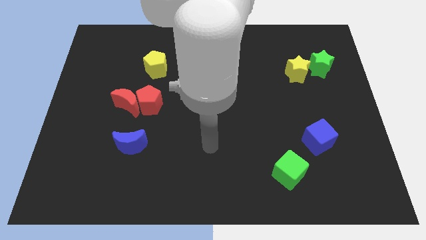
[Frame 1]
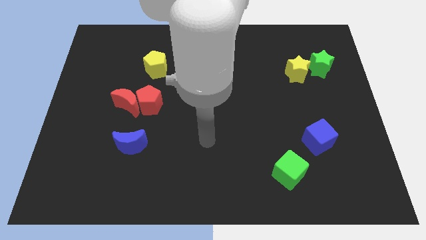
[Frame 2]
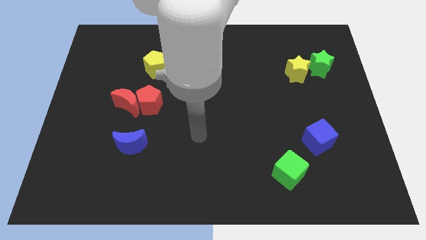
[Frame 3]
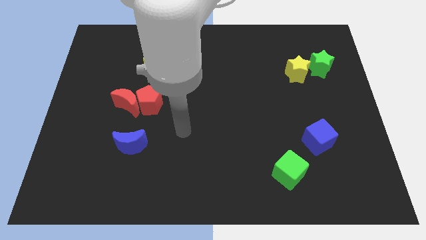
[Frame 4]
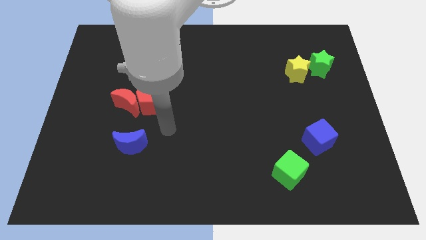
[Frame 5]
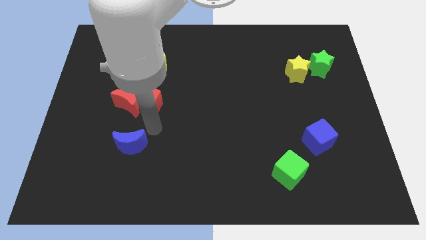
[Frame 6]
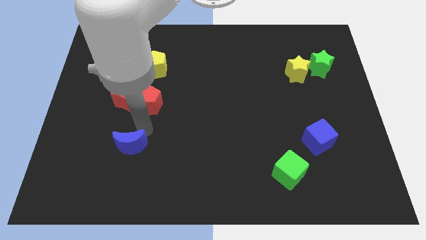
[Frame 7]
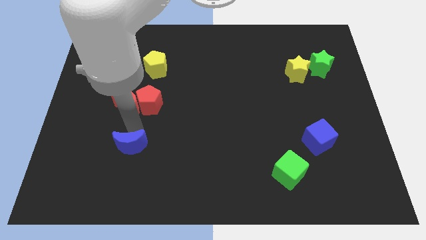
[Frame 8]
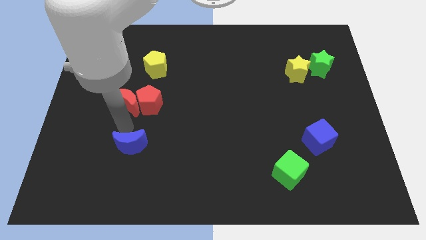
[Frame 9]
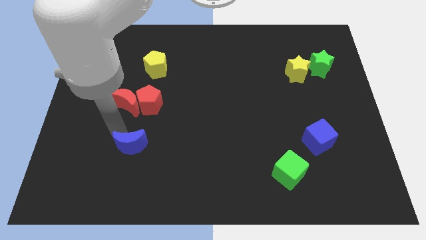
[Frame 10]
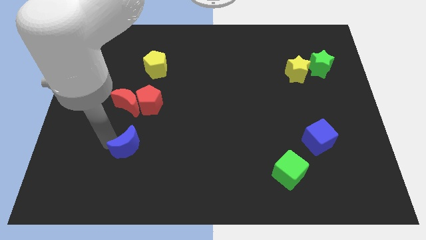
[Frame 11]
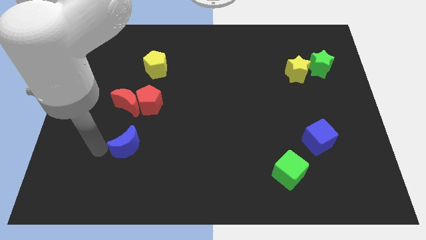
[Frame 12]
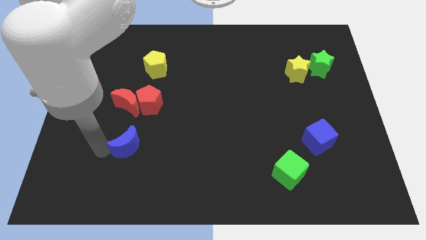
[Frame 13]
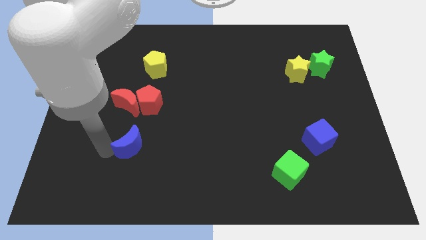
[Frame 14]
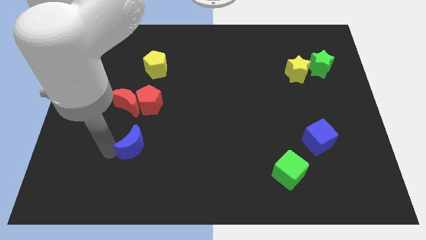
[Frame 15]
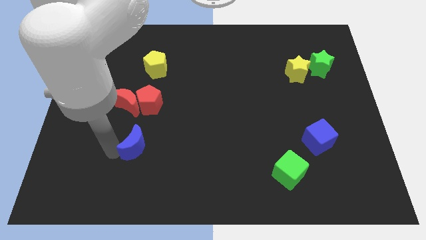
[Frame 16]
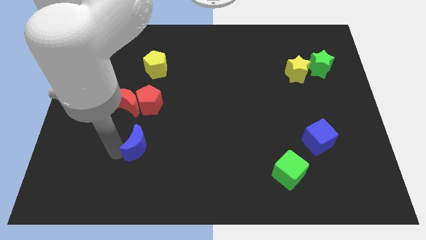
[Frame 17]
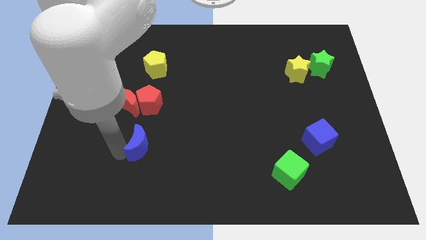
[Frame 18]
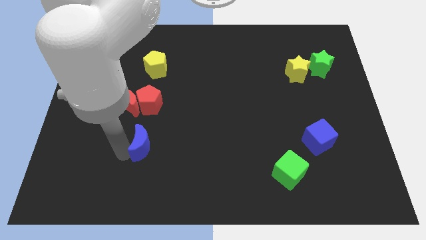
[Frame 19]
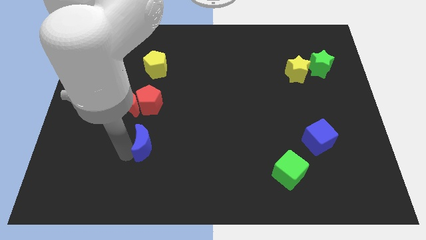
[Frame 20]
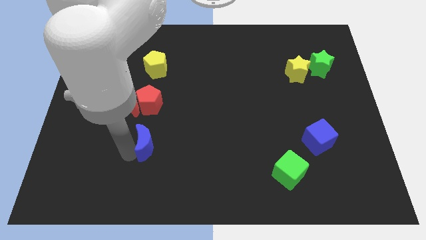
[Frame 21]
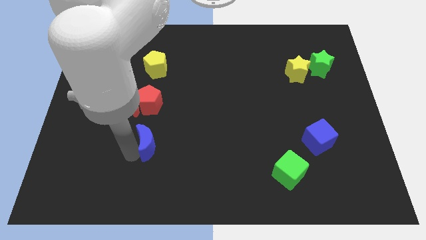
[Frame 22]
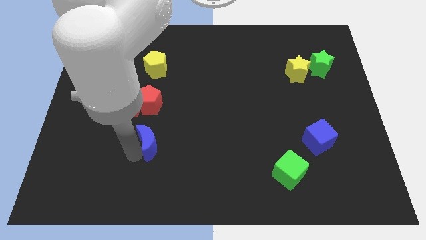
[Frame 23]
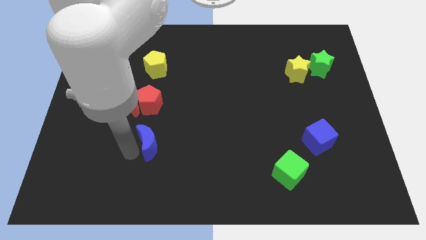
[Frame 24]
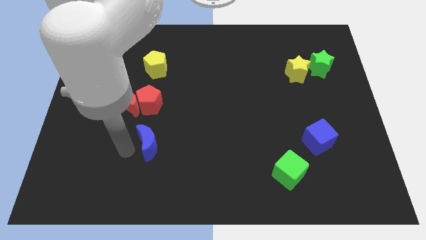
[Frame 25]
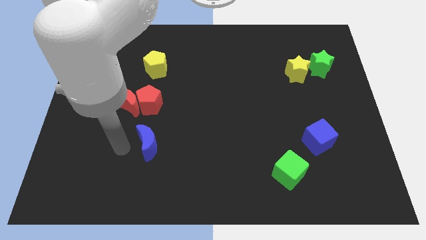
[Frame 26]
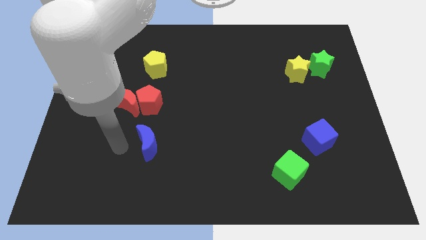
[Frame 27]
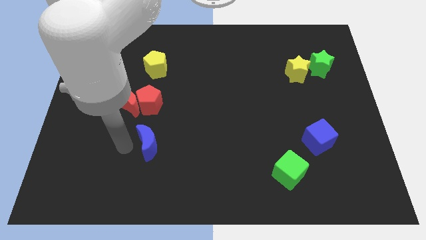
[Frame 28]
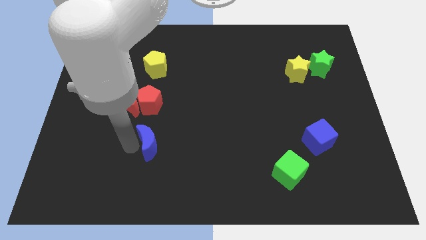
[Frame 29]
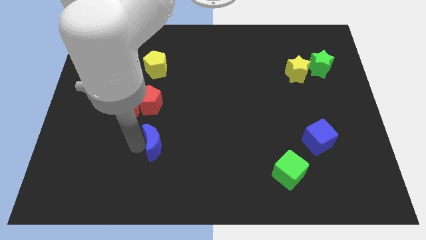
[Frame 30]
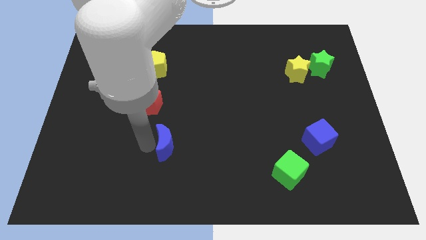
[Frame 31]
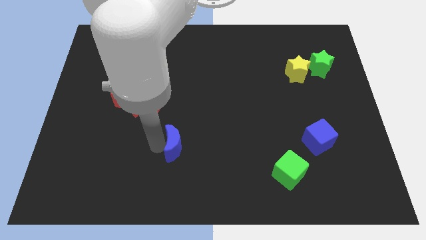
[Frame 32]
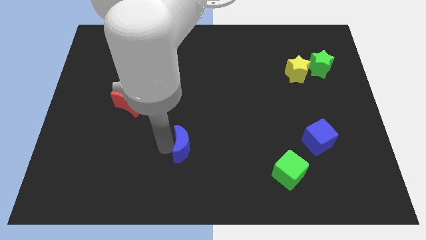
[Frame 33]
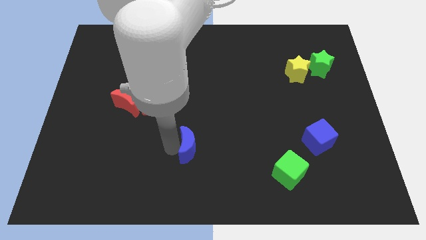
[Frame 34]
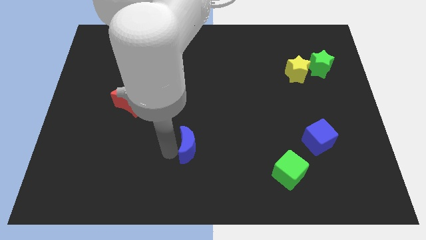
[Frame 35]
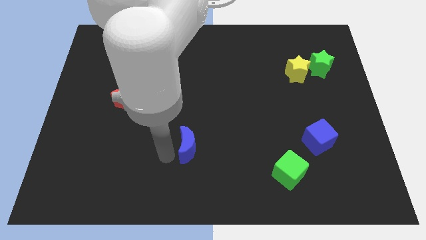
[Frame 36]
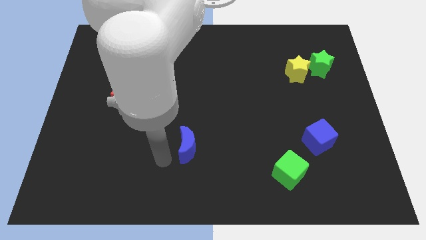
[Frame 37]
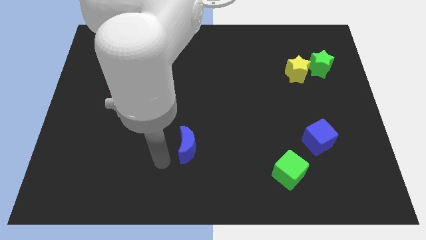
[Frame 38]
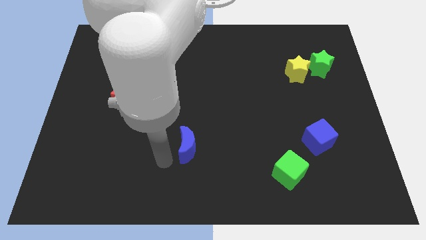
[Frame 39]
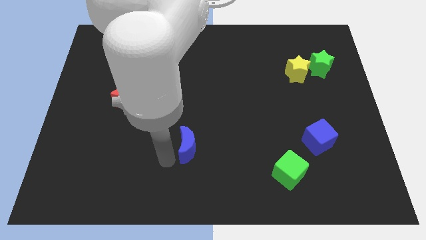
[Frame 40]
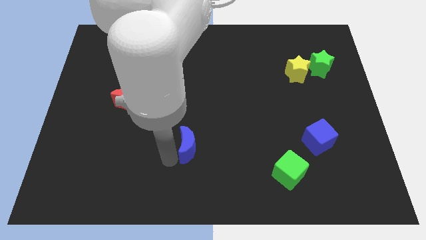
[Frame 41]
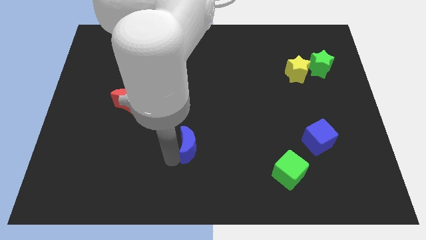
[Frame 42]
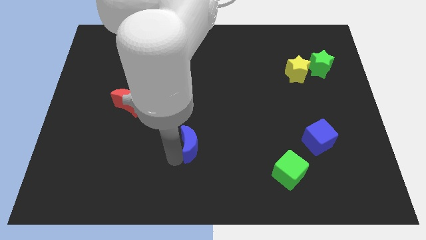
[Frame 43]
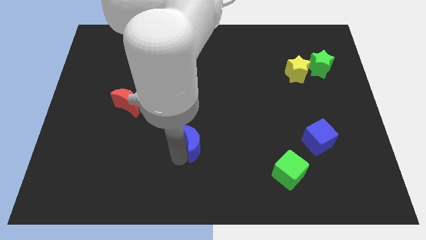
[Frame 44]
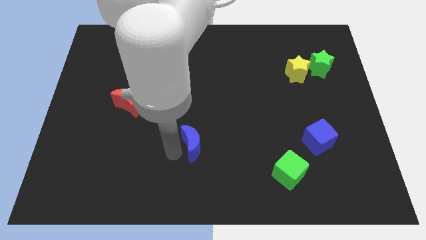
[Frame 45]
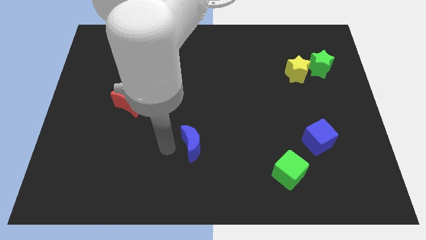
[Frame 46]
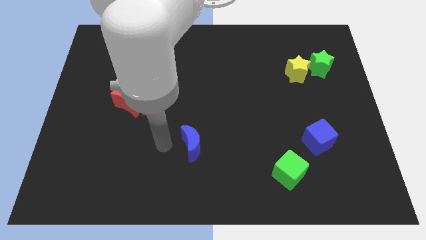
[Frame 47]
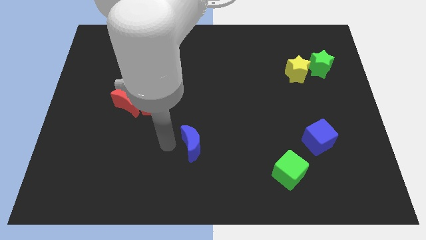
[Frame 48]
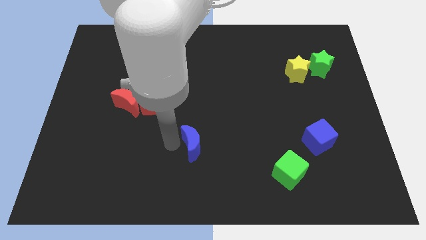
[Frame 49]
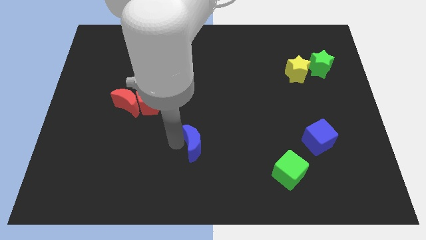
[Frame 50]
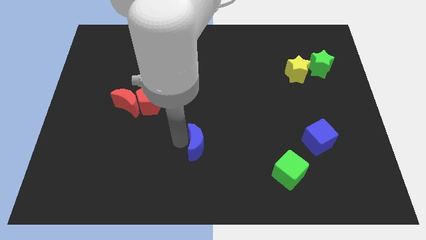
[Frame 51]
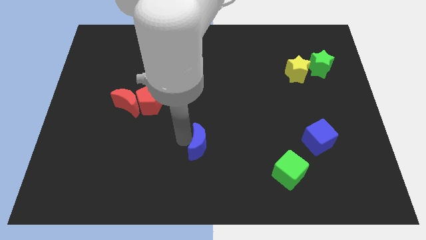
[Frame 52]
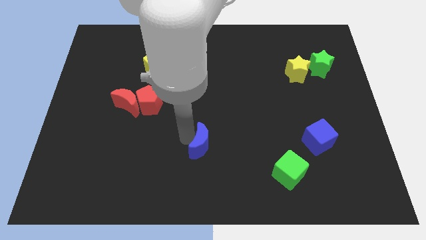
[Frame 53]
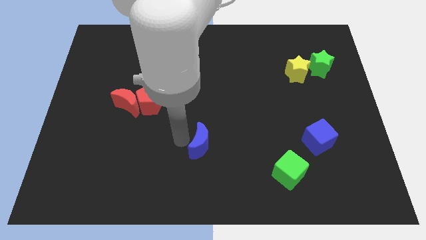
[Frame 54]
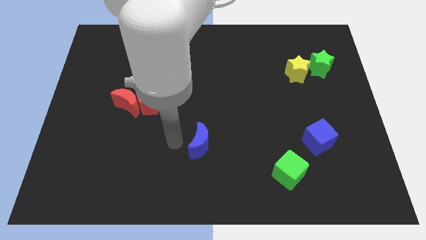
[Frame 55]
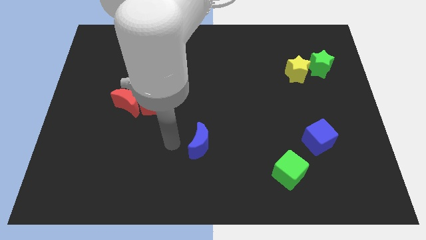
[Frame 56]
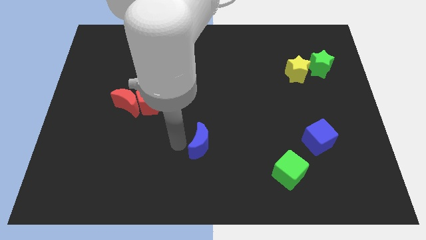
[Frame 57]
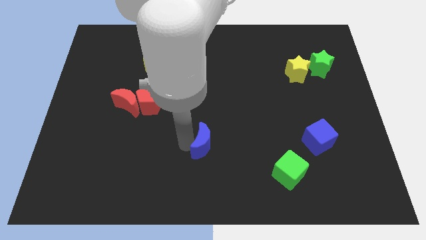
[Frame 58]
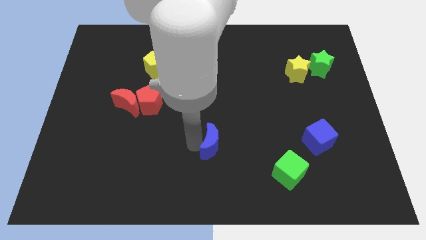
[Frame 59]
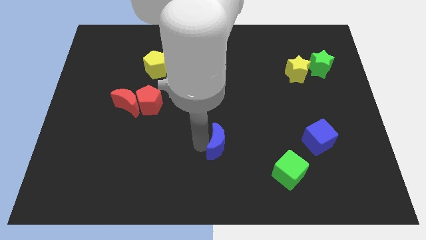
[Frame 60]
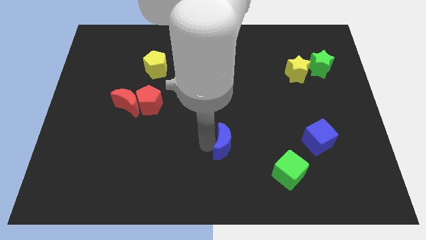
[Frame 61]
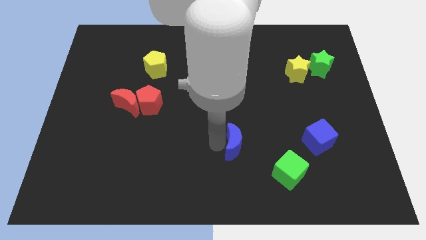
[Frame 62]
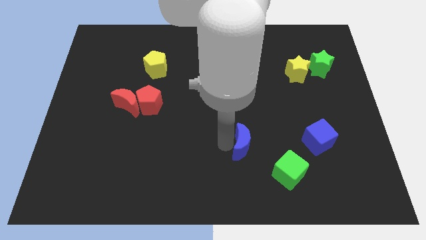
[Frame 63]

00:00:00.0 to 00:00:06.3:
push the blue moon to the top left of the green cube

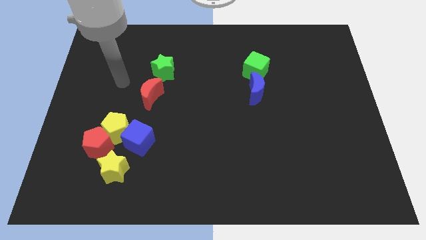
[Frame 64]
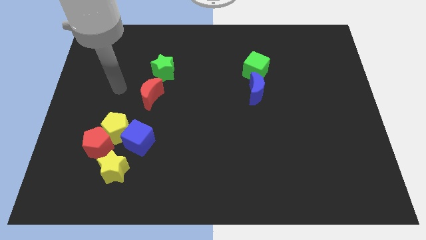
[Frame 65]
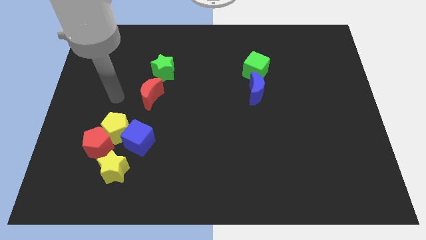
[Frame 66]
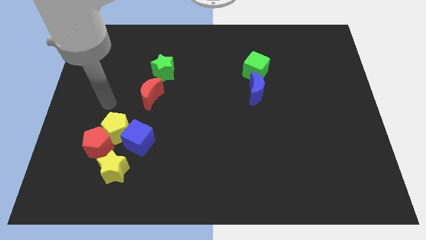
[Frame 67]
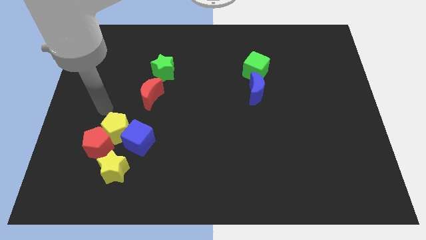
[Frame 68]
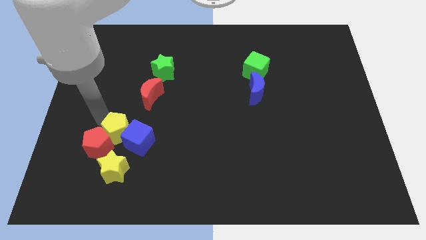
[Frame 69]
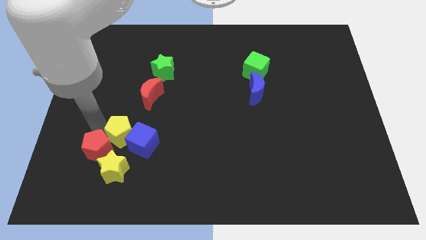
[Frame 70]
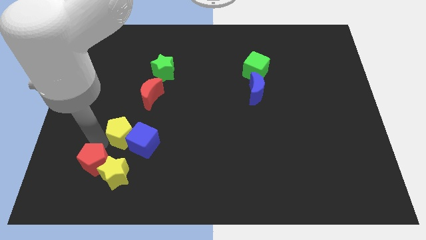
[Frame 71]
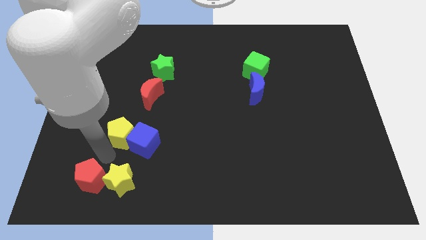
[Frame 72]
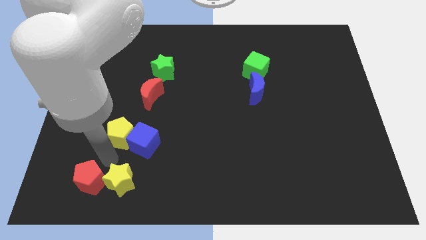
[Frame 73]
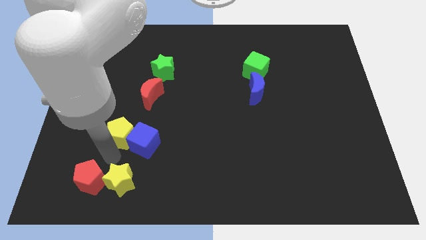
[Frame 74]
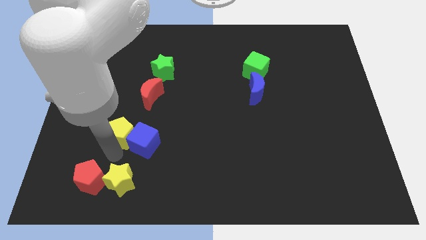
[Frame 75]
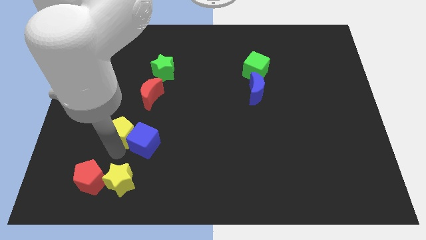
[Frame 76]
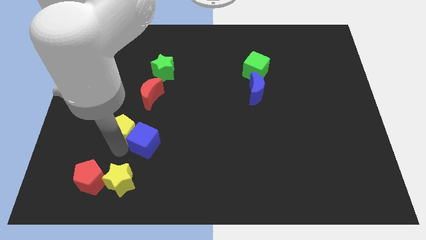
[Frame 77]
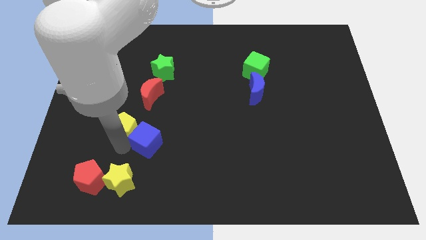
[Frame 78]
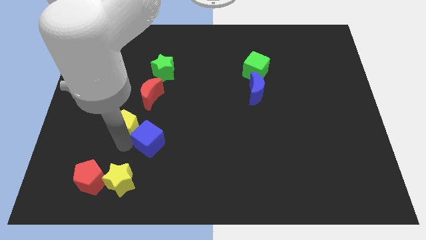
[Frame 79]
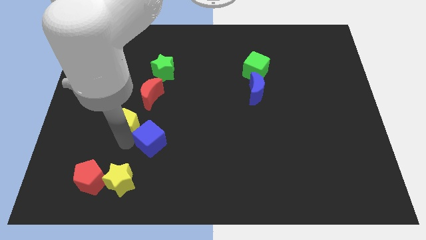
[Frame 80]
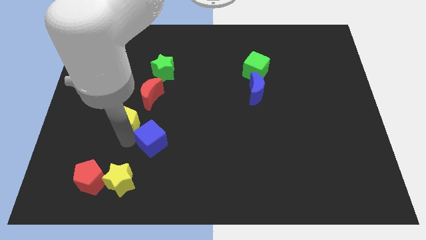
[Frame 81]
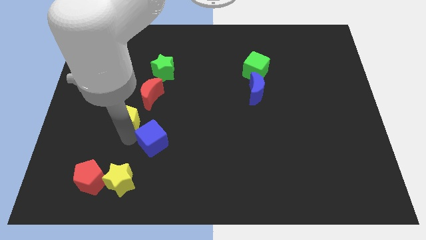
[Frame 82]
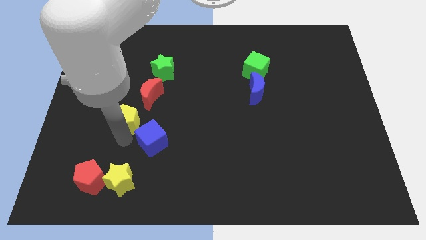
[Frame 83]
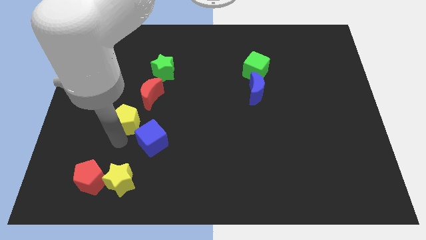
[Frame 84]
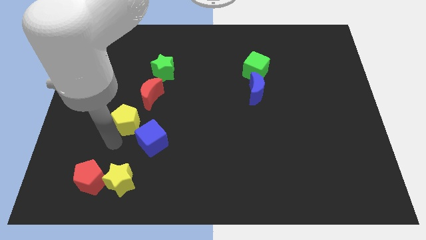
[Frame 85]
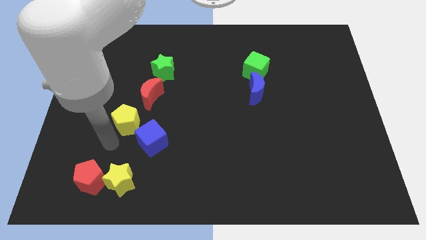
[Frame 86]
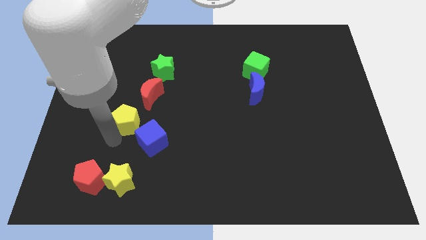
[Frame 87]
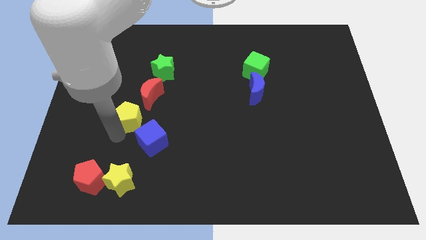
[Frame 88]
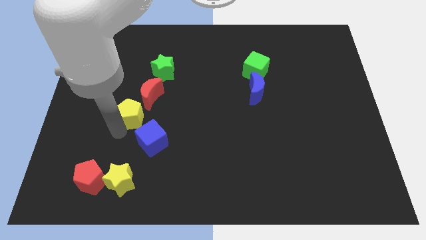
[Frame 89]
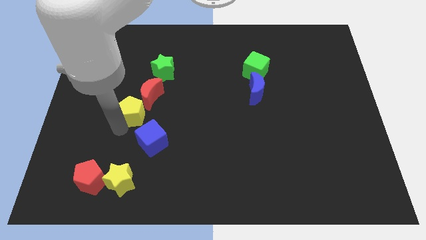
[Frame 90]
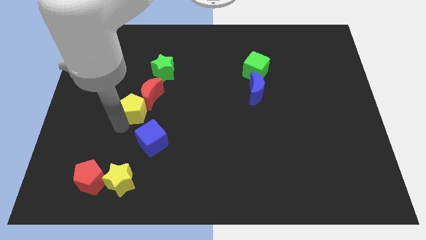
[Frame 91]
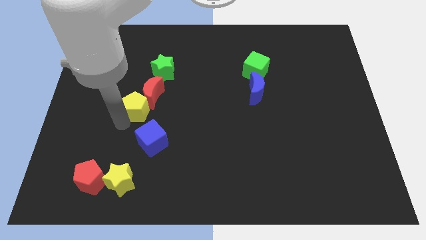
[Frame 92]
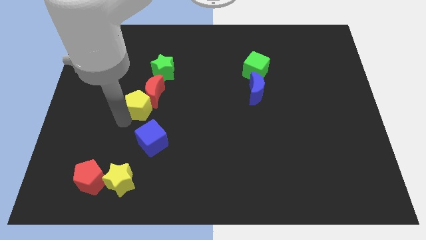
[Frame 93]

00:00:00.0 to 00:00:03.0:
slide the yellow pentagon below the green star
